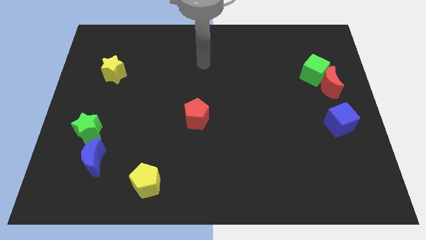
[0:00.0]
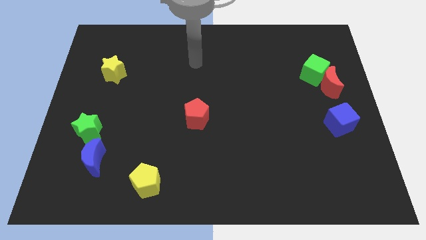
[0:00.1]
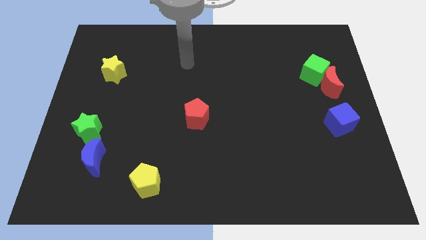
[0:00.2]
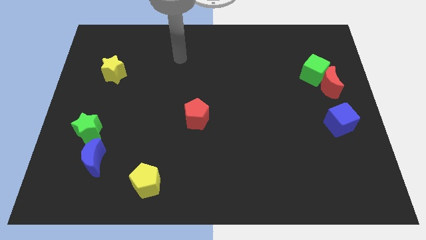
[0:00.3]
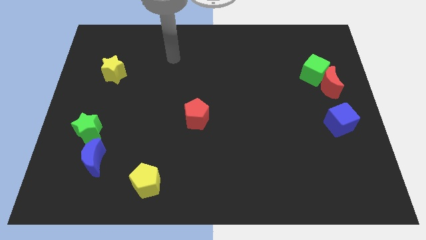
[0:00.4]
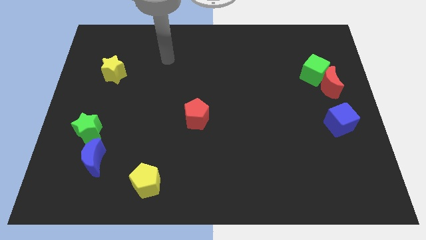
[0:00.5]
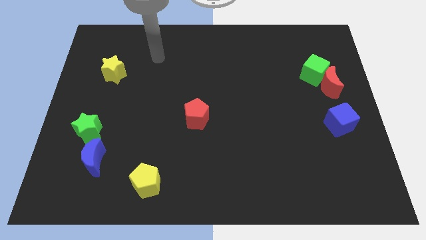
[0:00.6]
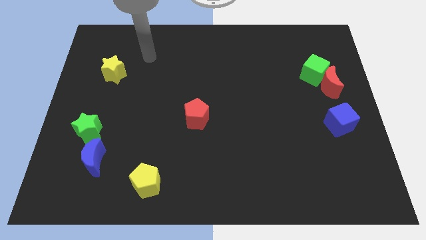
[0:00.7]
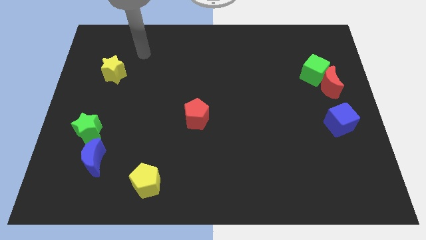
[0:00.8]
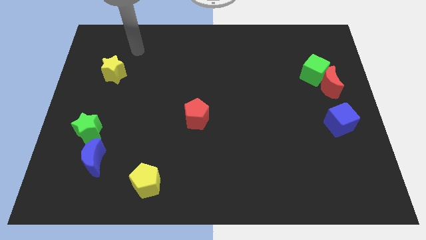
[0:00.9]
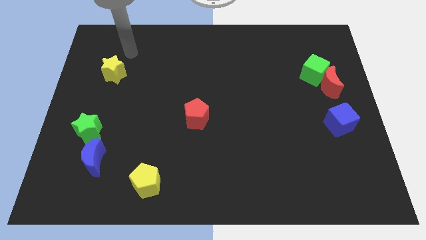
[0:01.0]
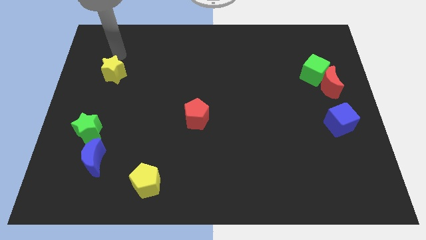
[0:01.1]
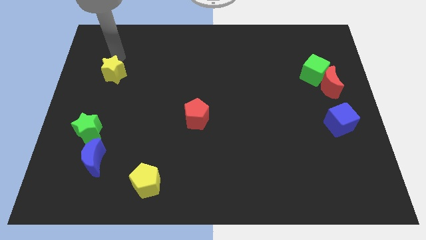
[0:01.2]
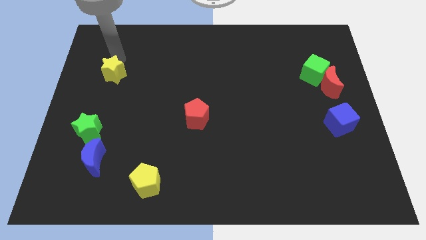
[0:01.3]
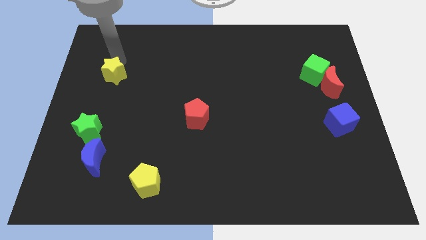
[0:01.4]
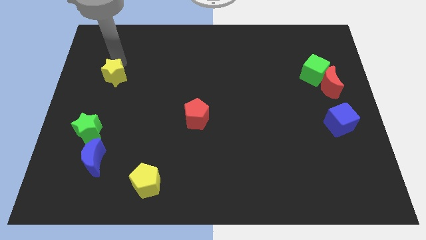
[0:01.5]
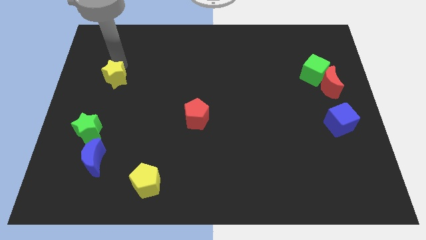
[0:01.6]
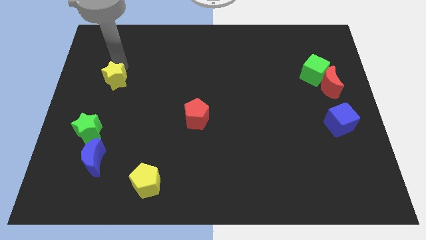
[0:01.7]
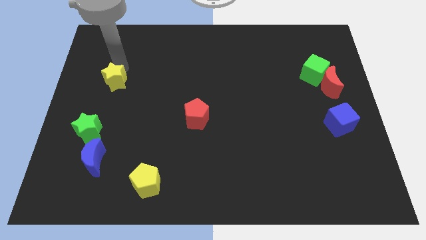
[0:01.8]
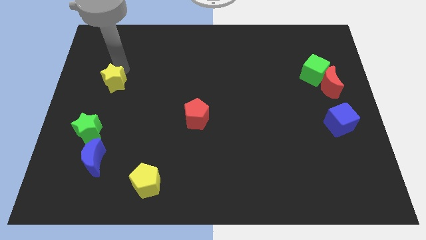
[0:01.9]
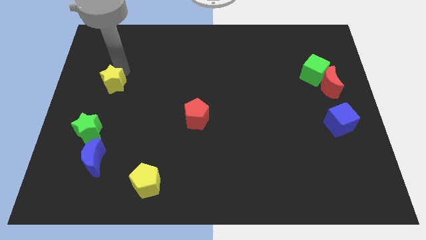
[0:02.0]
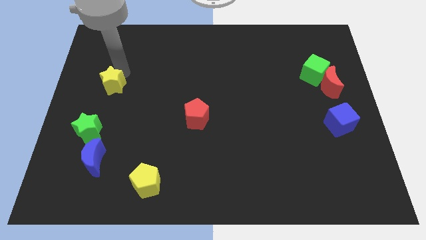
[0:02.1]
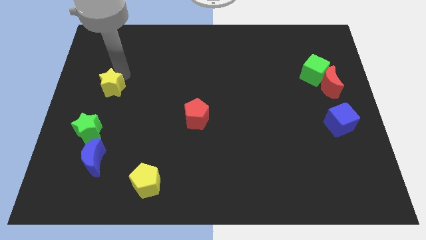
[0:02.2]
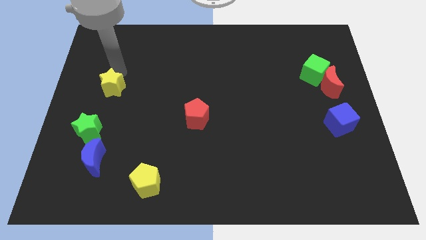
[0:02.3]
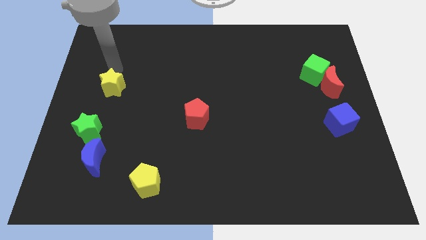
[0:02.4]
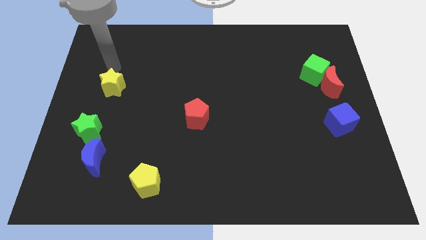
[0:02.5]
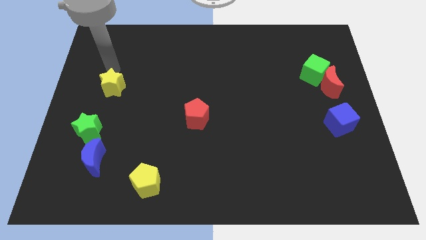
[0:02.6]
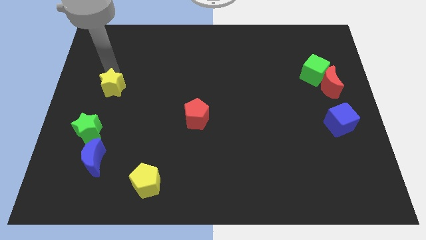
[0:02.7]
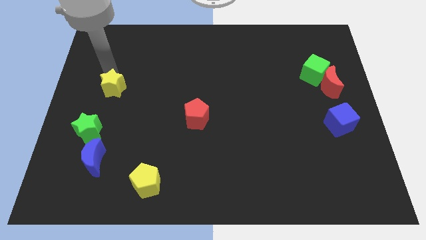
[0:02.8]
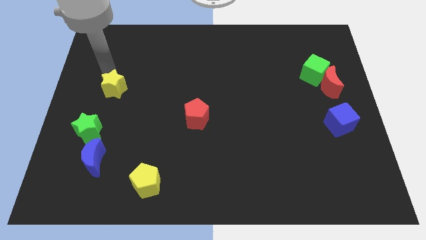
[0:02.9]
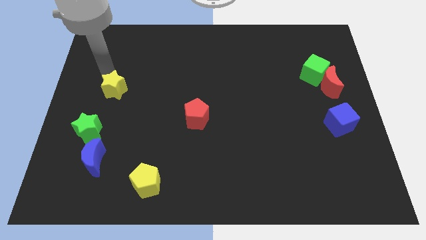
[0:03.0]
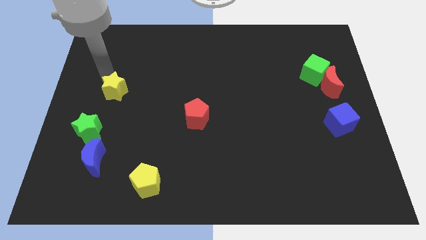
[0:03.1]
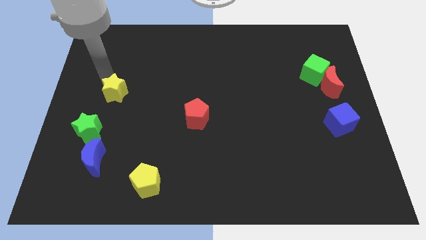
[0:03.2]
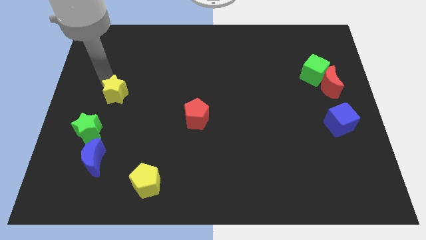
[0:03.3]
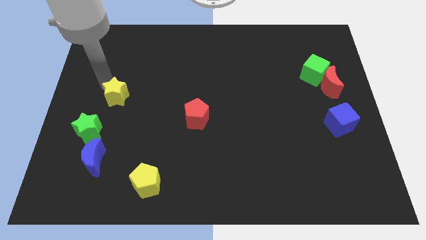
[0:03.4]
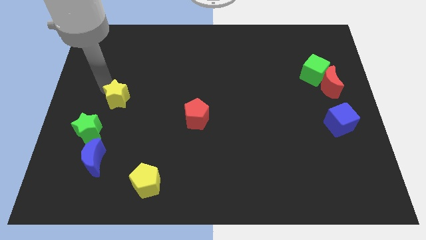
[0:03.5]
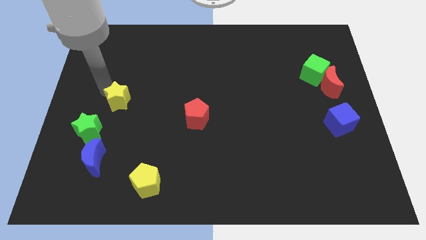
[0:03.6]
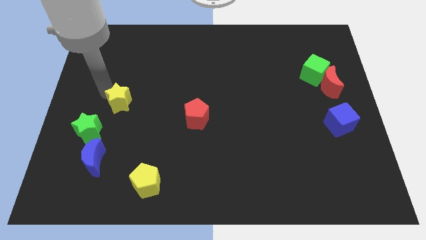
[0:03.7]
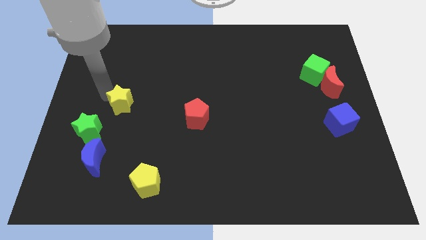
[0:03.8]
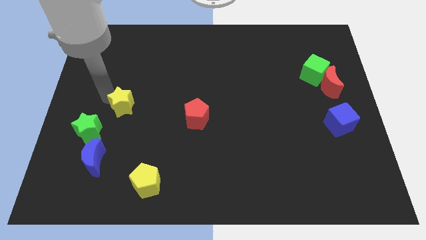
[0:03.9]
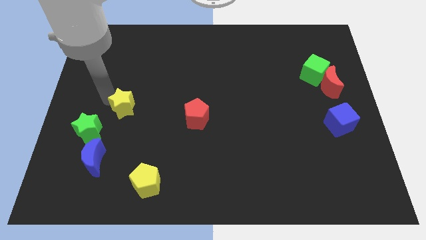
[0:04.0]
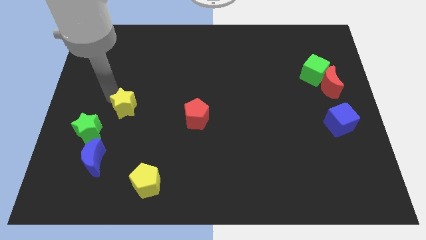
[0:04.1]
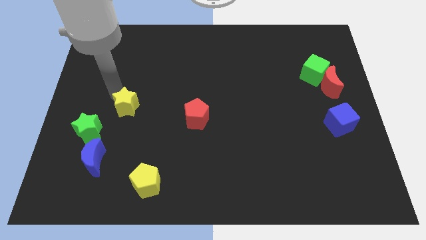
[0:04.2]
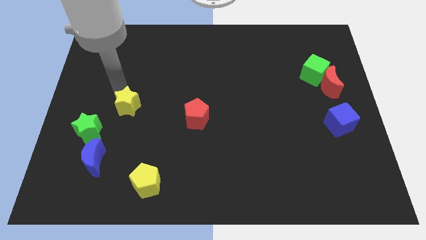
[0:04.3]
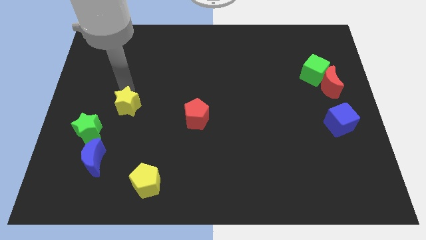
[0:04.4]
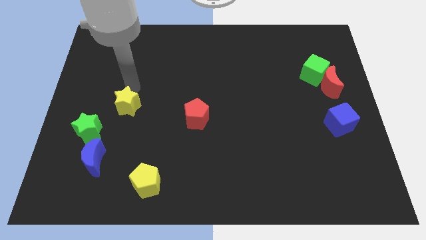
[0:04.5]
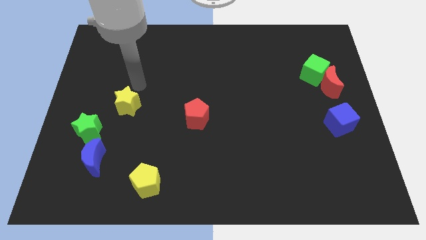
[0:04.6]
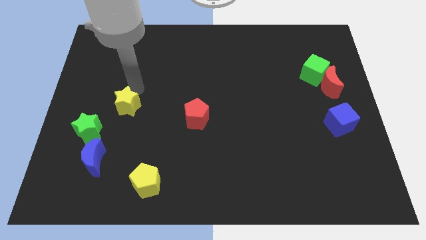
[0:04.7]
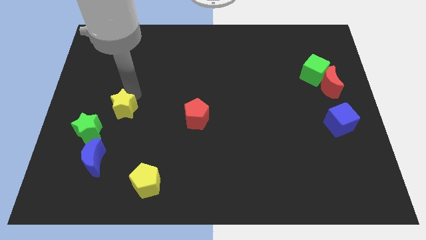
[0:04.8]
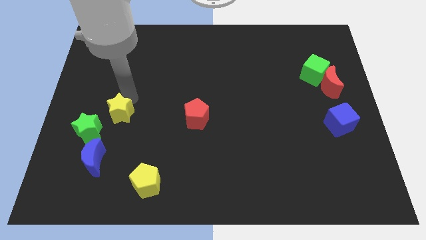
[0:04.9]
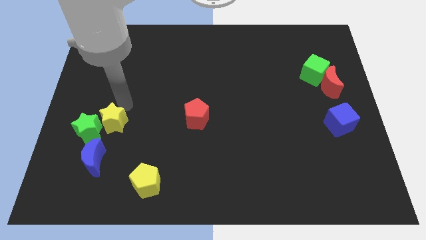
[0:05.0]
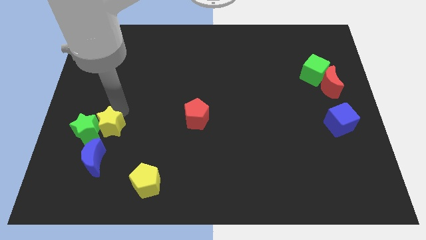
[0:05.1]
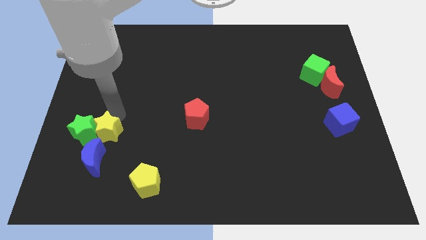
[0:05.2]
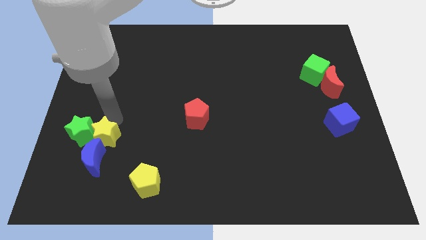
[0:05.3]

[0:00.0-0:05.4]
push the yellow star to the blue moon

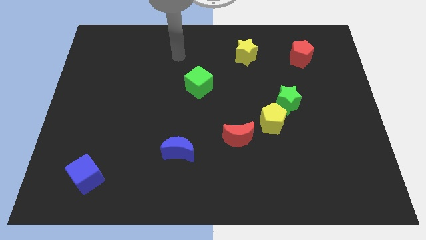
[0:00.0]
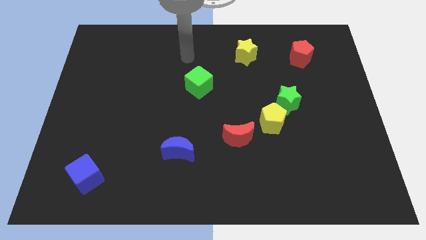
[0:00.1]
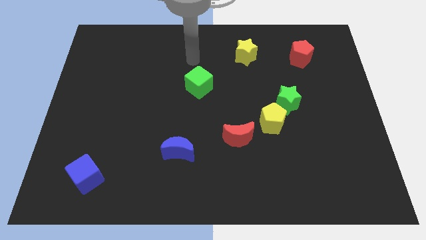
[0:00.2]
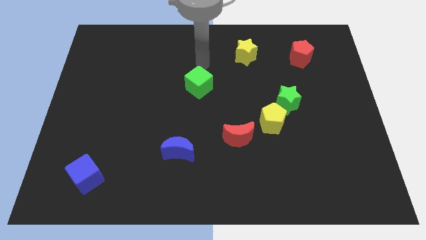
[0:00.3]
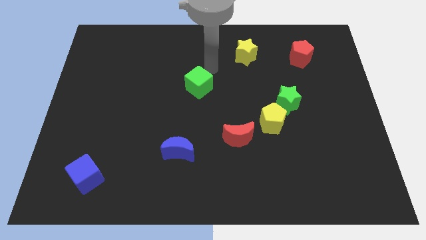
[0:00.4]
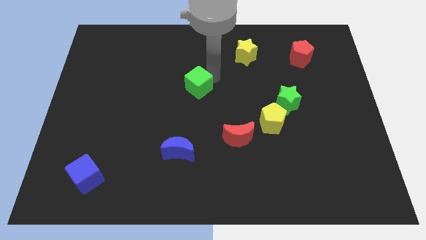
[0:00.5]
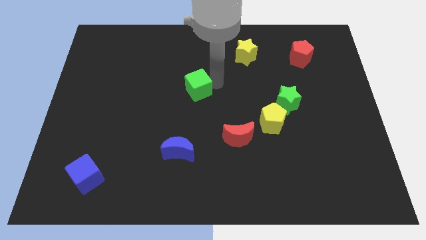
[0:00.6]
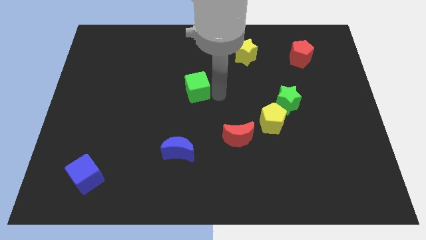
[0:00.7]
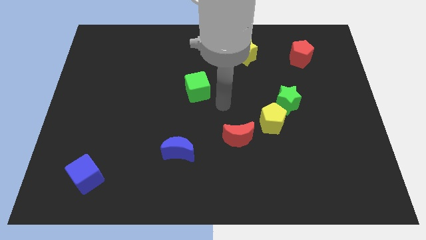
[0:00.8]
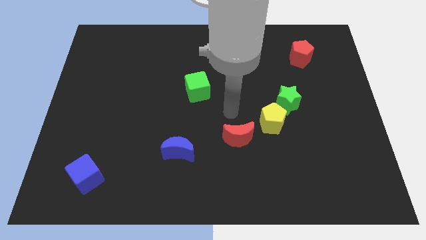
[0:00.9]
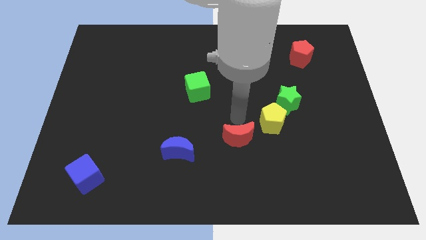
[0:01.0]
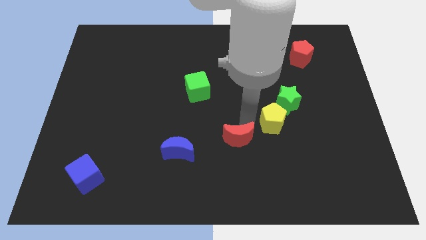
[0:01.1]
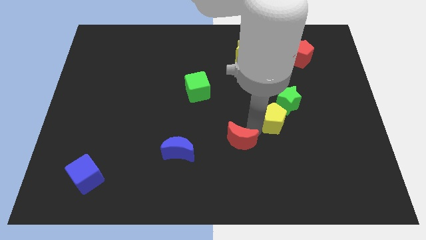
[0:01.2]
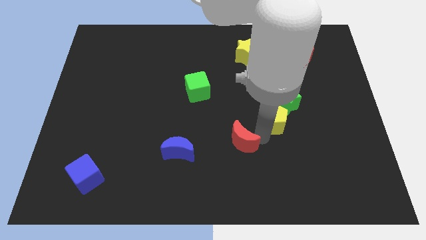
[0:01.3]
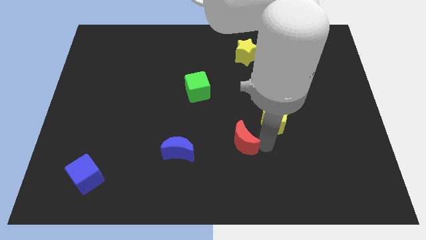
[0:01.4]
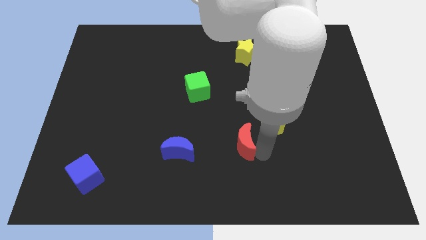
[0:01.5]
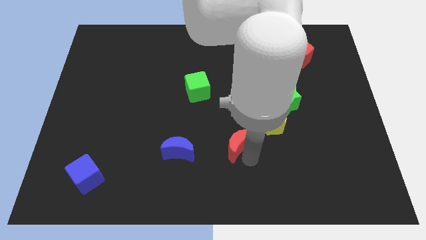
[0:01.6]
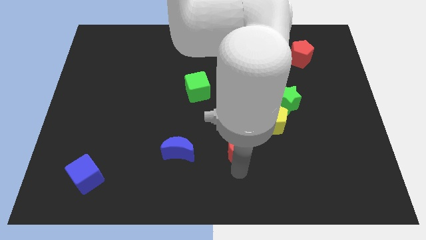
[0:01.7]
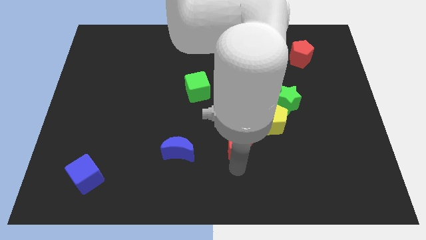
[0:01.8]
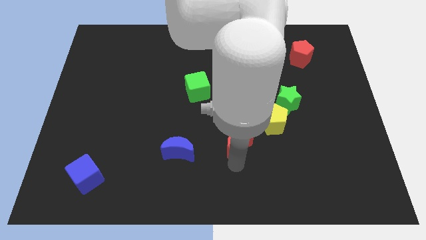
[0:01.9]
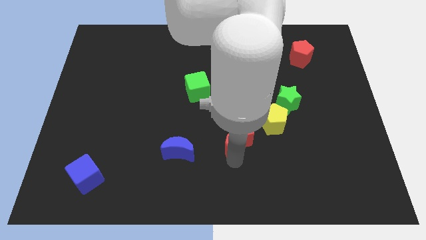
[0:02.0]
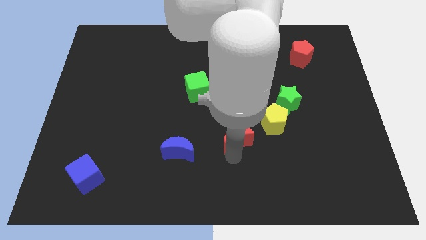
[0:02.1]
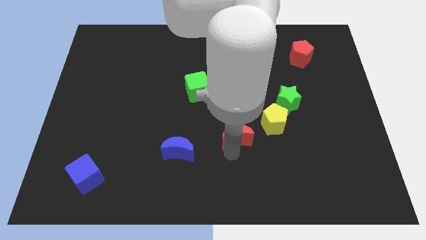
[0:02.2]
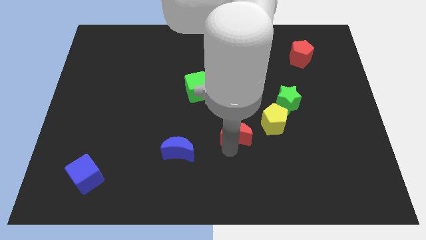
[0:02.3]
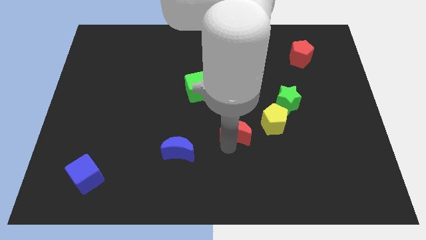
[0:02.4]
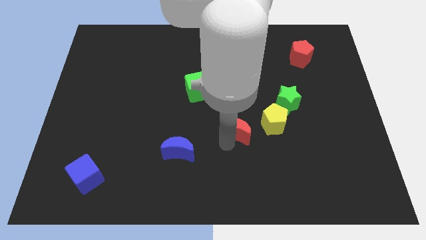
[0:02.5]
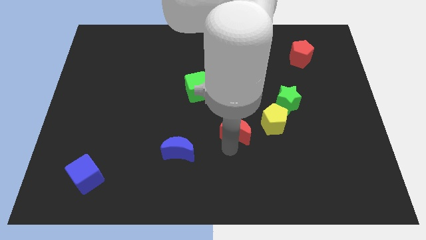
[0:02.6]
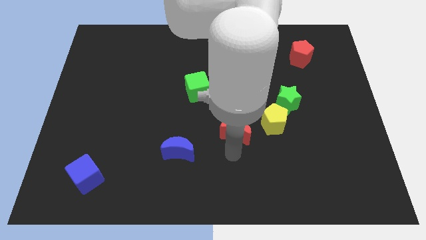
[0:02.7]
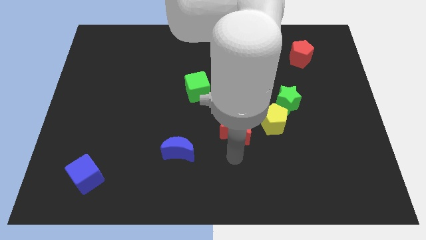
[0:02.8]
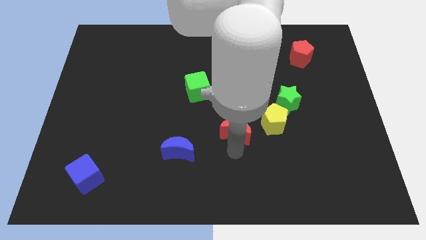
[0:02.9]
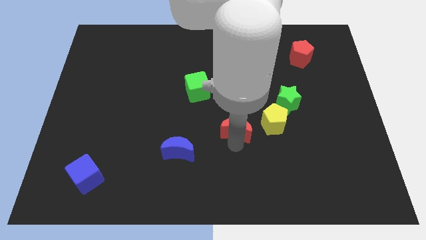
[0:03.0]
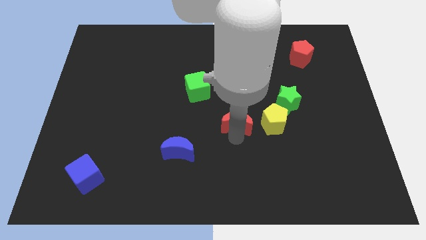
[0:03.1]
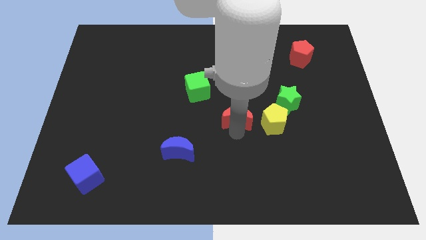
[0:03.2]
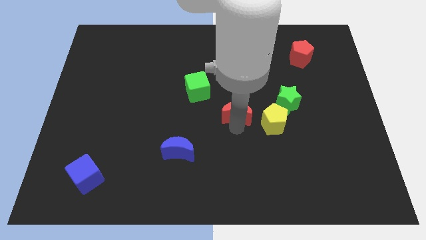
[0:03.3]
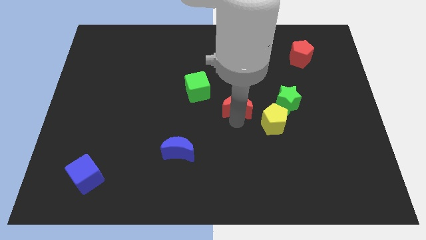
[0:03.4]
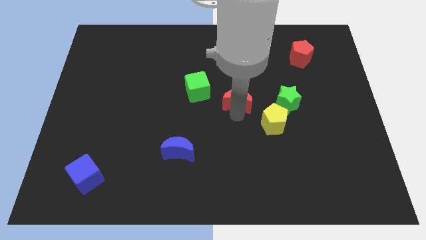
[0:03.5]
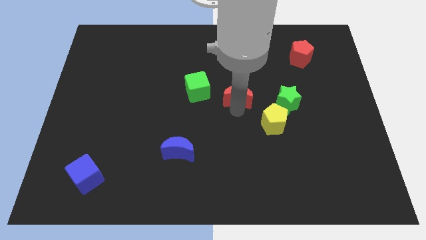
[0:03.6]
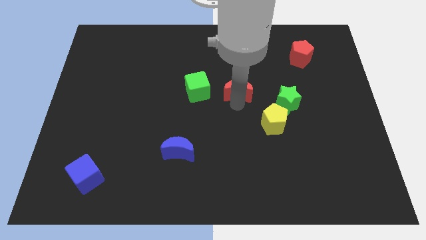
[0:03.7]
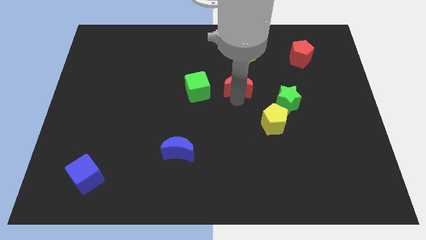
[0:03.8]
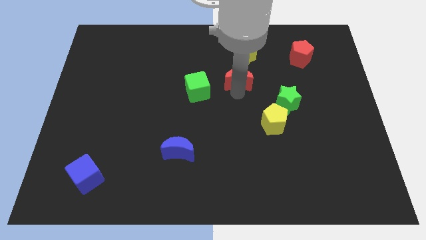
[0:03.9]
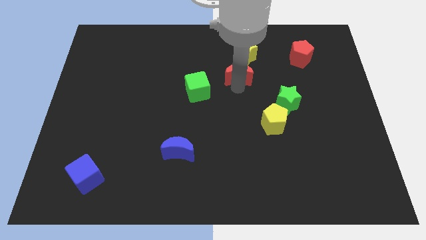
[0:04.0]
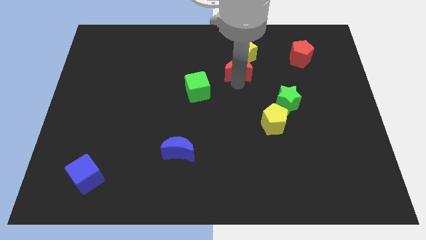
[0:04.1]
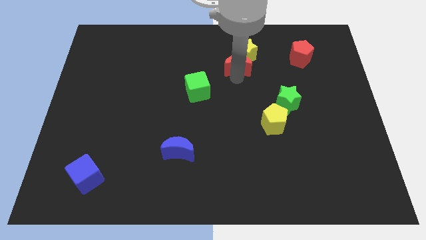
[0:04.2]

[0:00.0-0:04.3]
move the red moon close to the yellow star
